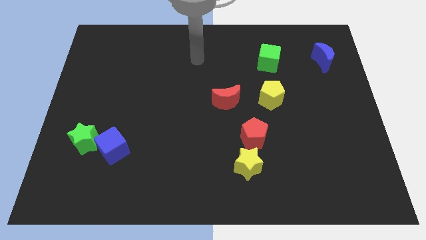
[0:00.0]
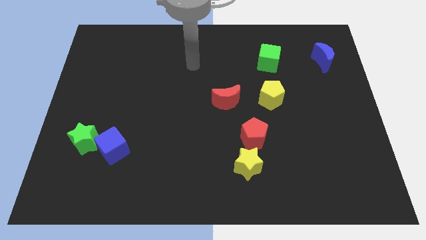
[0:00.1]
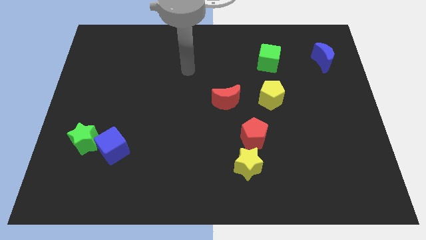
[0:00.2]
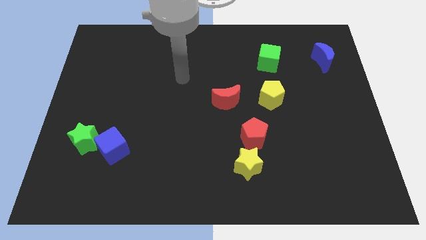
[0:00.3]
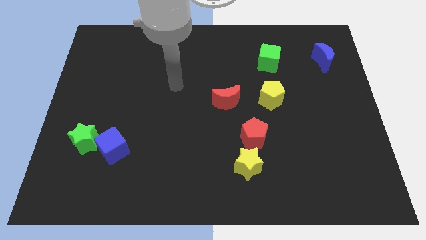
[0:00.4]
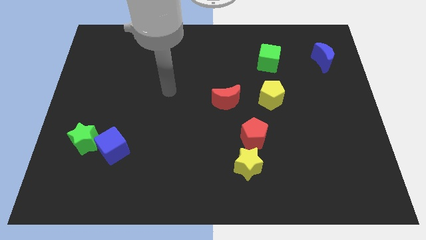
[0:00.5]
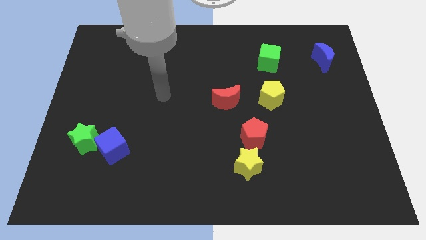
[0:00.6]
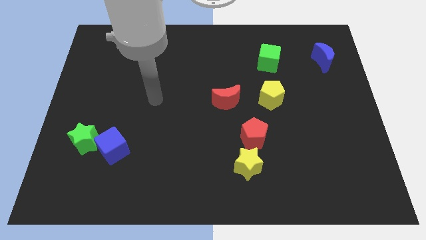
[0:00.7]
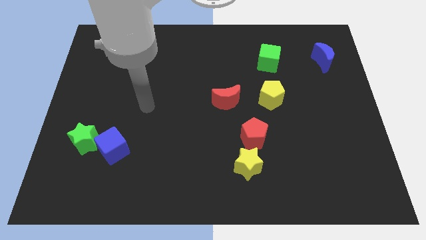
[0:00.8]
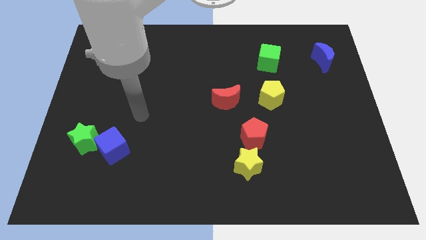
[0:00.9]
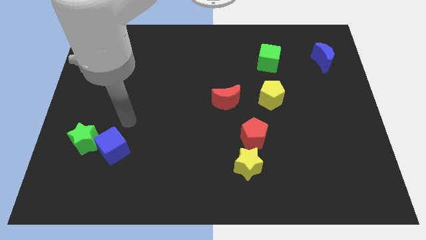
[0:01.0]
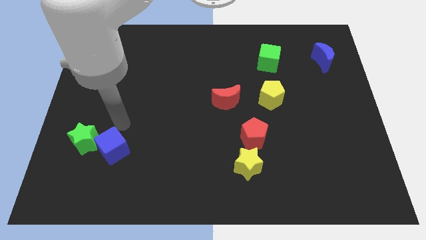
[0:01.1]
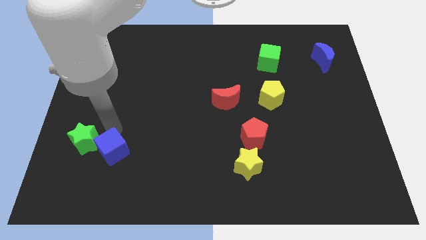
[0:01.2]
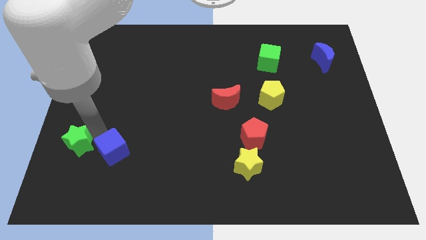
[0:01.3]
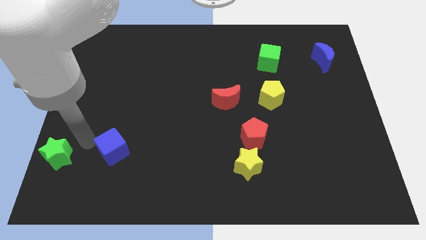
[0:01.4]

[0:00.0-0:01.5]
move the blue cube away from the green star

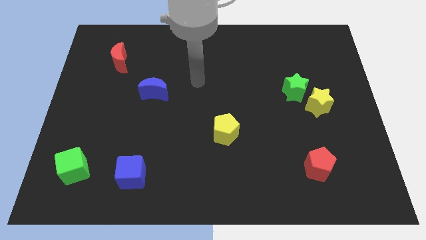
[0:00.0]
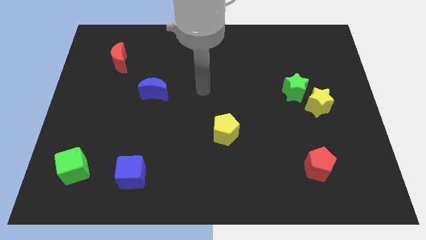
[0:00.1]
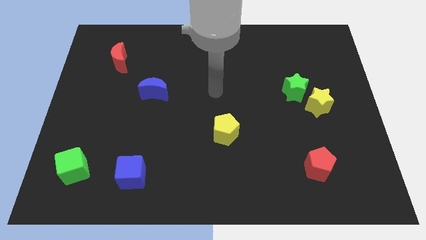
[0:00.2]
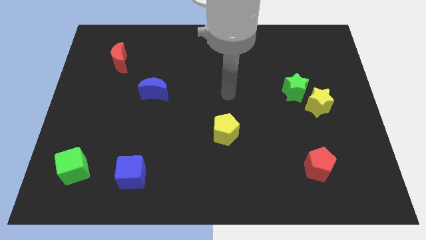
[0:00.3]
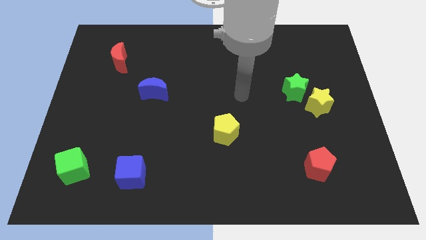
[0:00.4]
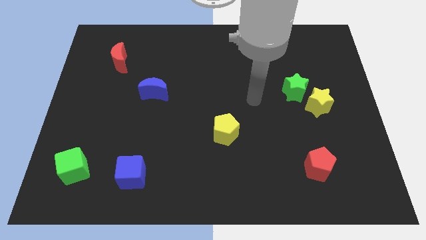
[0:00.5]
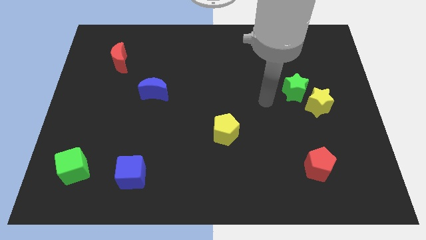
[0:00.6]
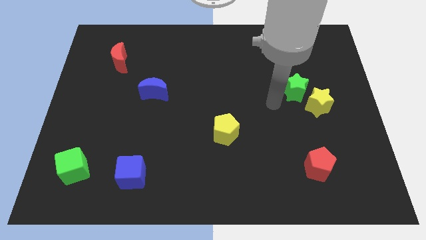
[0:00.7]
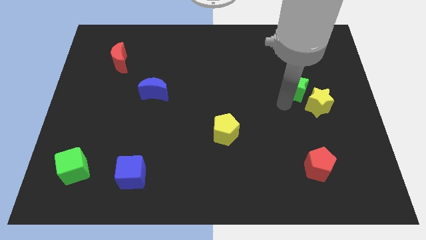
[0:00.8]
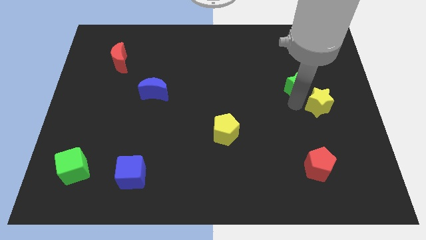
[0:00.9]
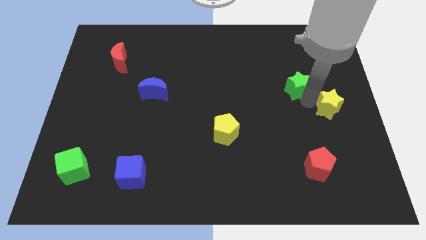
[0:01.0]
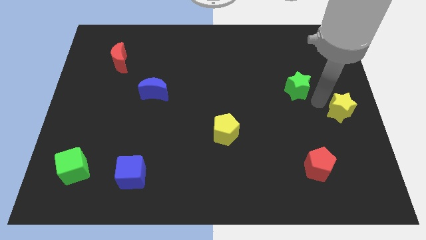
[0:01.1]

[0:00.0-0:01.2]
separate the green star from the yellow star

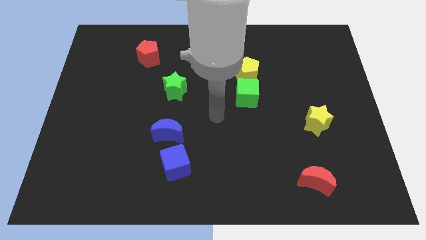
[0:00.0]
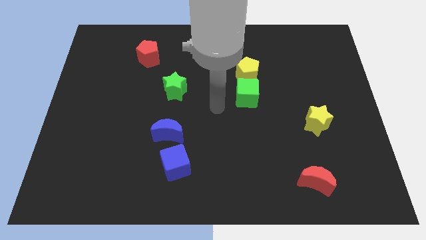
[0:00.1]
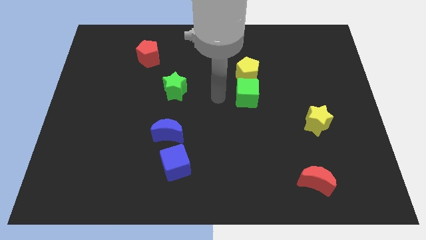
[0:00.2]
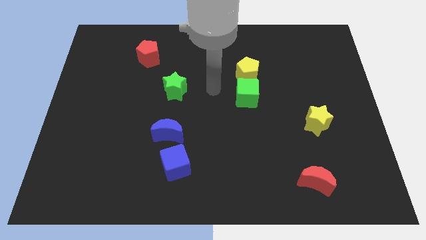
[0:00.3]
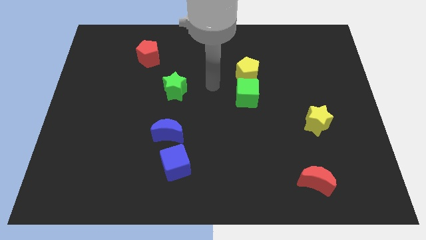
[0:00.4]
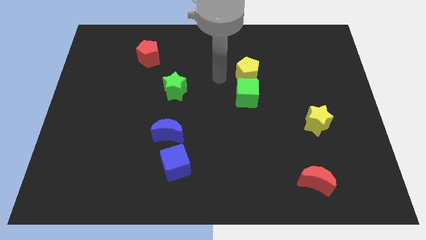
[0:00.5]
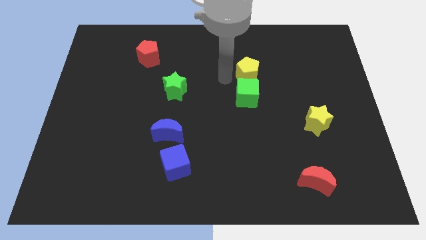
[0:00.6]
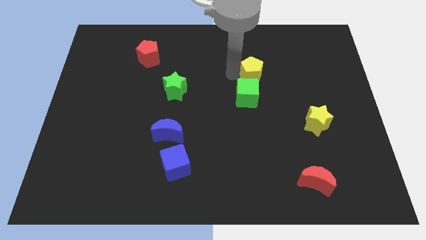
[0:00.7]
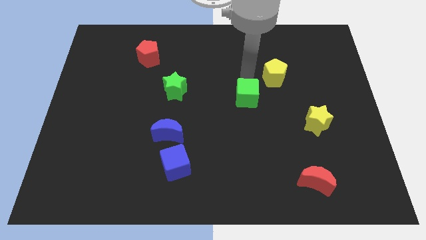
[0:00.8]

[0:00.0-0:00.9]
separate the green cube from the yellow pentagon

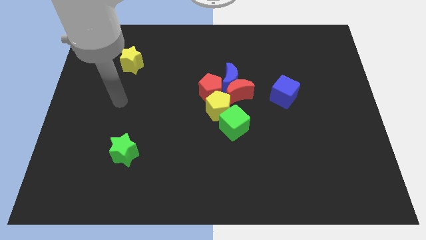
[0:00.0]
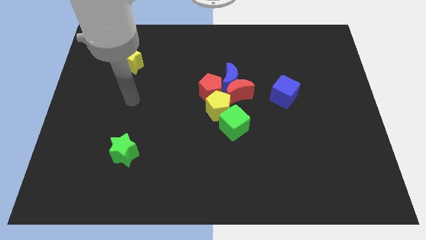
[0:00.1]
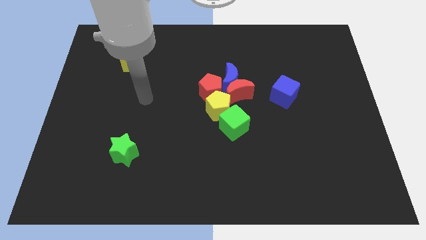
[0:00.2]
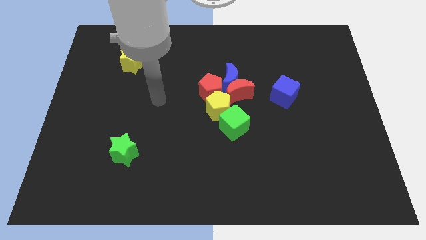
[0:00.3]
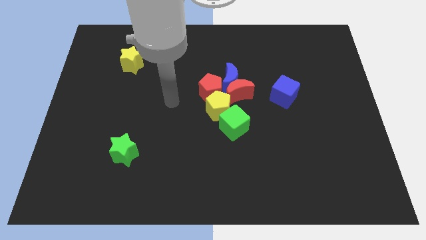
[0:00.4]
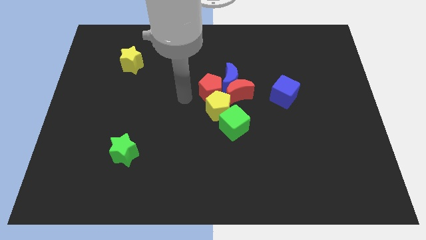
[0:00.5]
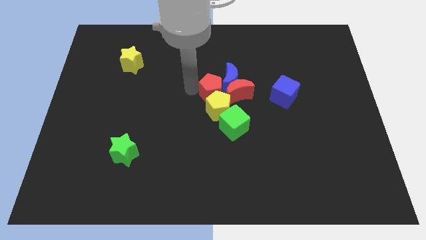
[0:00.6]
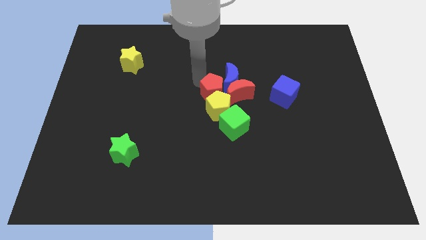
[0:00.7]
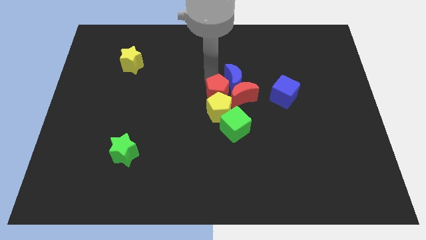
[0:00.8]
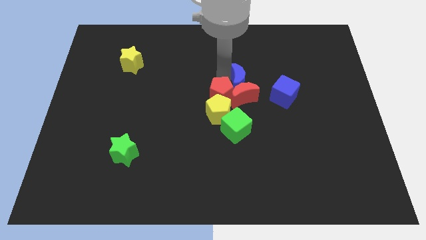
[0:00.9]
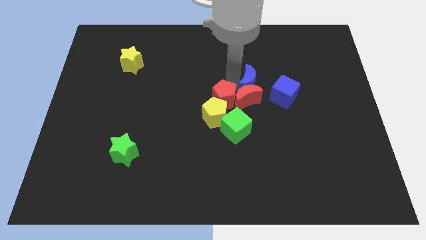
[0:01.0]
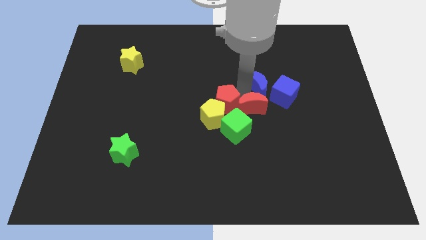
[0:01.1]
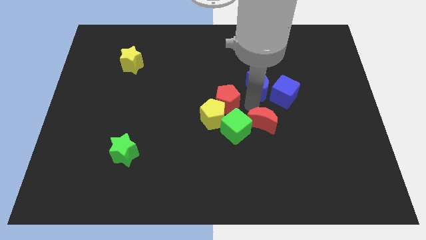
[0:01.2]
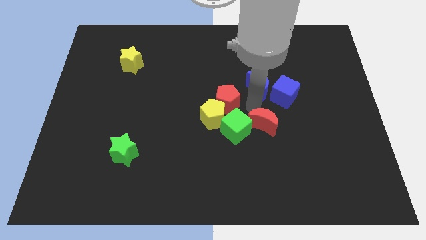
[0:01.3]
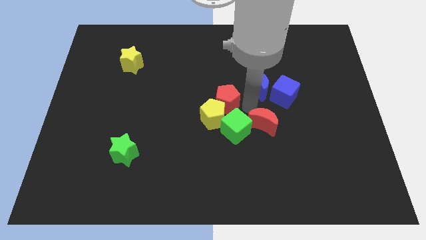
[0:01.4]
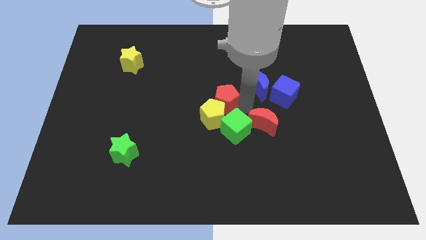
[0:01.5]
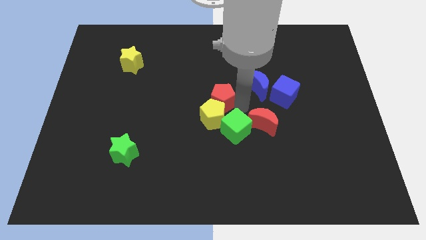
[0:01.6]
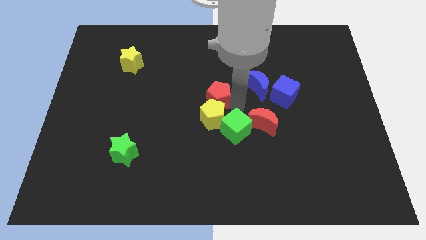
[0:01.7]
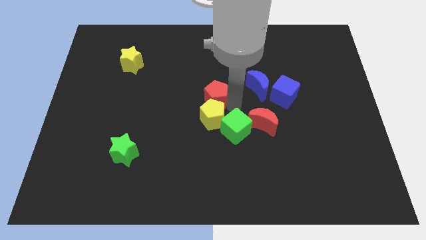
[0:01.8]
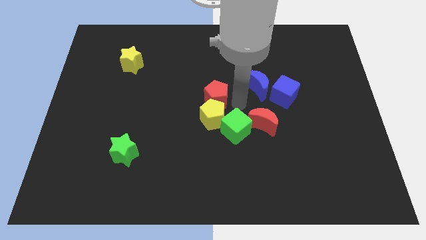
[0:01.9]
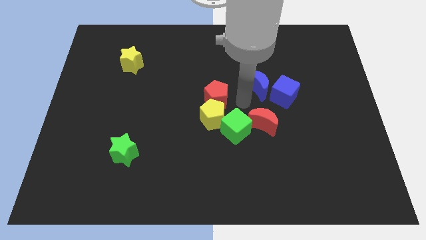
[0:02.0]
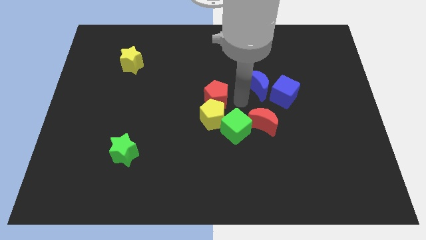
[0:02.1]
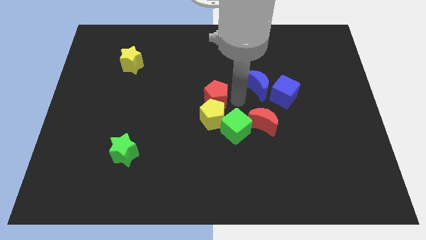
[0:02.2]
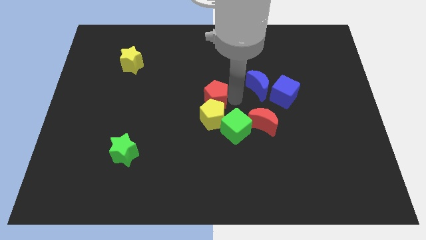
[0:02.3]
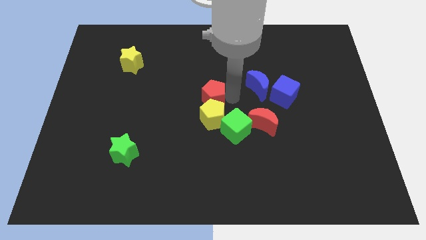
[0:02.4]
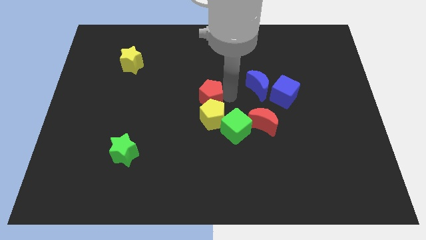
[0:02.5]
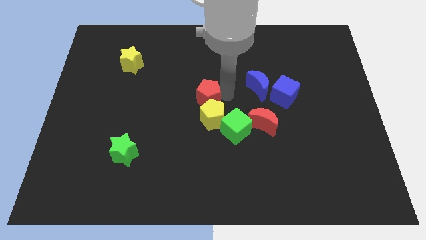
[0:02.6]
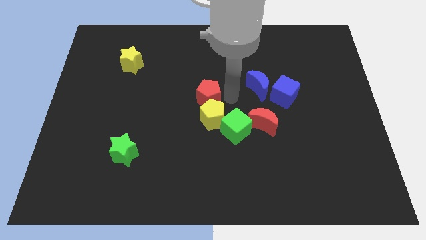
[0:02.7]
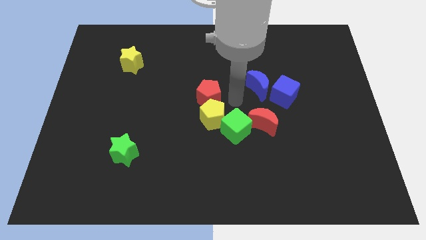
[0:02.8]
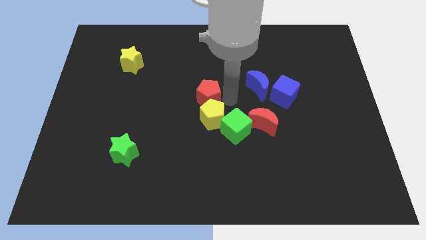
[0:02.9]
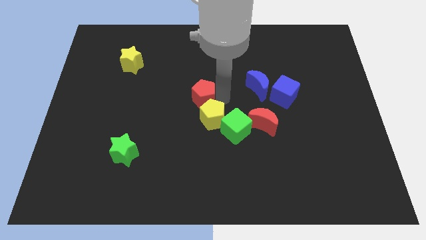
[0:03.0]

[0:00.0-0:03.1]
pull the red pentagon apart from the yellow pentagon, blue moon, and red moon

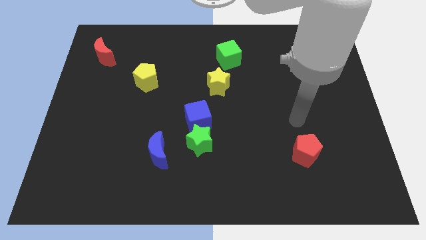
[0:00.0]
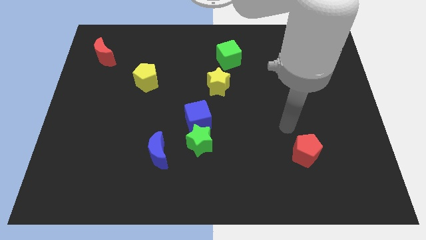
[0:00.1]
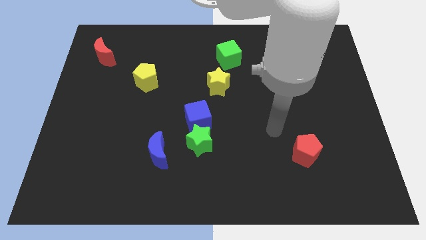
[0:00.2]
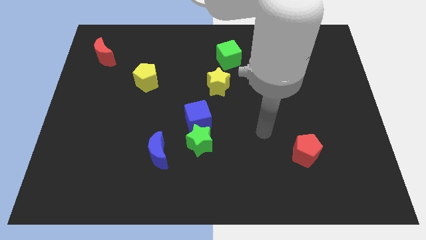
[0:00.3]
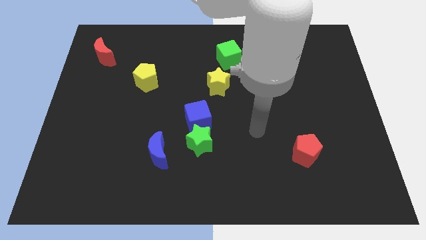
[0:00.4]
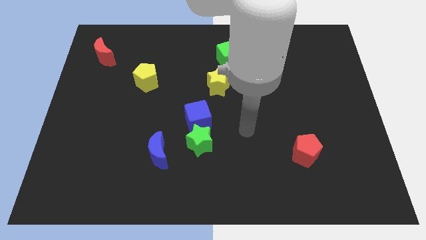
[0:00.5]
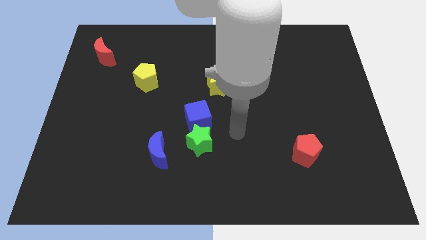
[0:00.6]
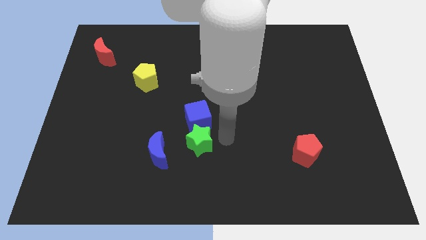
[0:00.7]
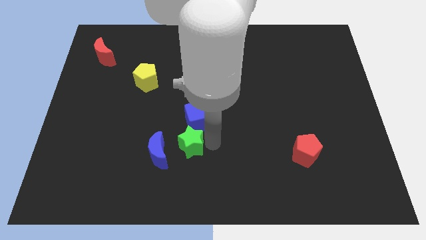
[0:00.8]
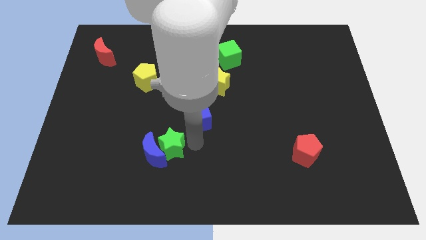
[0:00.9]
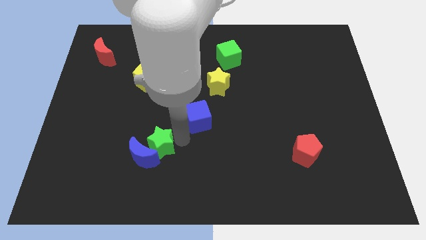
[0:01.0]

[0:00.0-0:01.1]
pull the blue cube apart from the green star

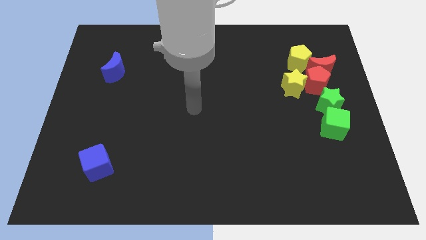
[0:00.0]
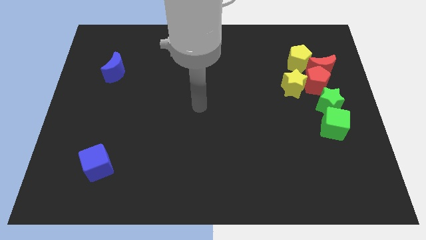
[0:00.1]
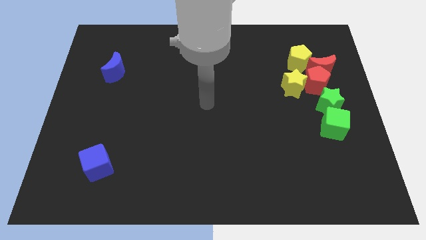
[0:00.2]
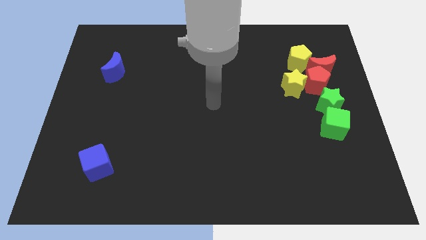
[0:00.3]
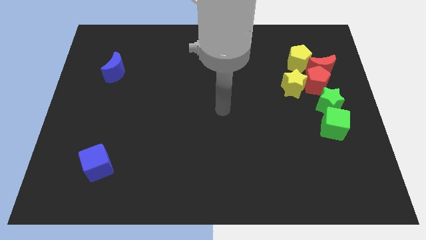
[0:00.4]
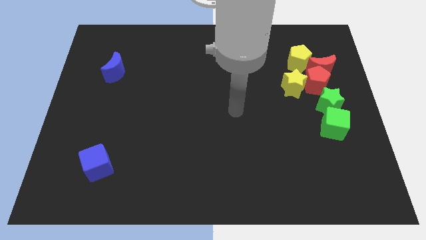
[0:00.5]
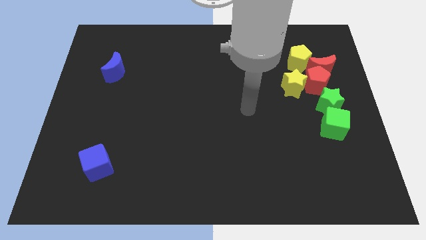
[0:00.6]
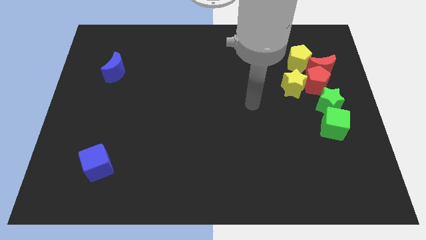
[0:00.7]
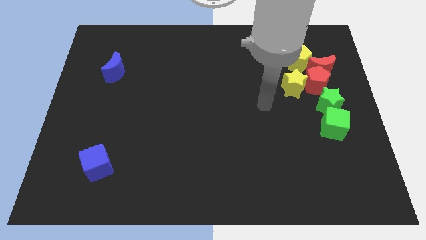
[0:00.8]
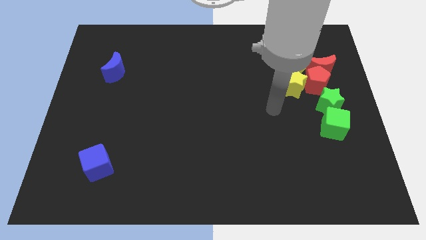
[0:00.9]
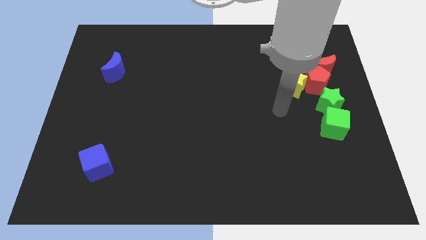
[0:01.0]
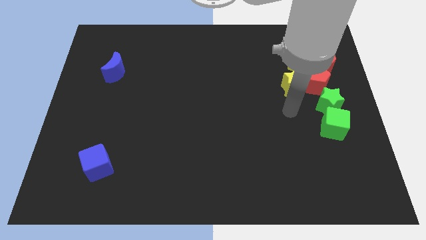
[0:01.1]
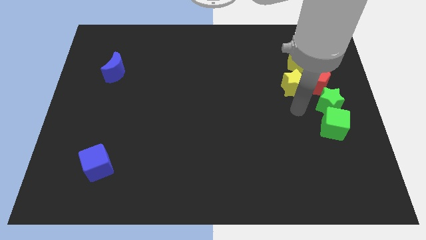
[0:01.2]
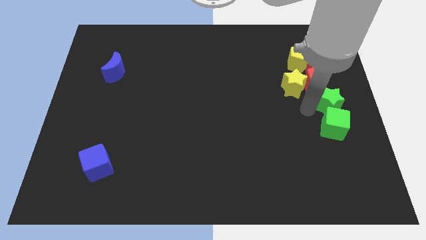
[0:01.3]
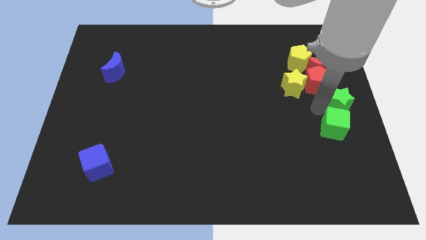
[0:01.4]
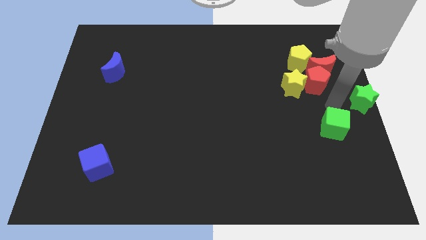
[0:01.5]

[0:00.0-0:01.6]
move the green cube away from the green star
